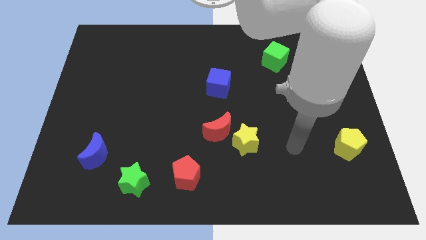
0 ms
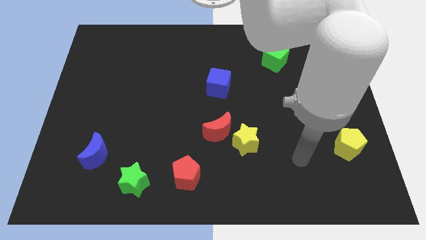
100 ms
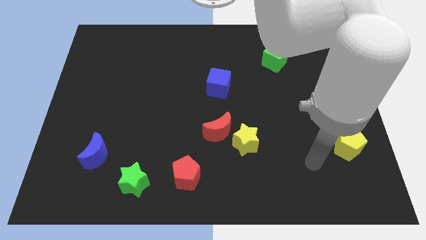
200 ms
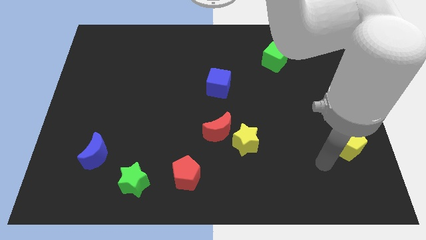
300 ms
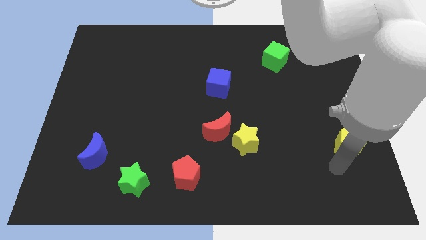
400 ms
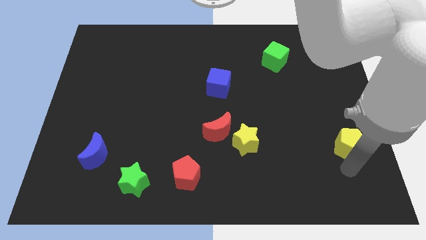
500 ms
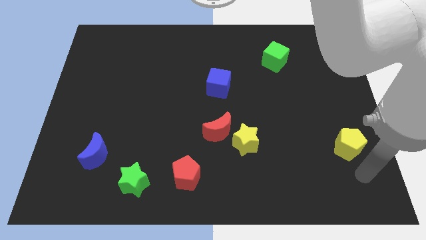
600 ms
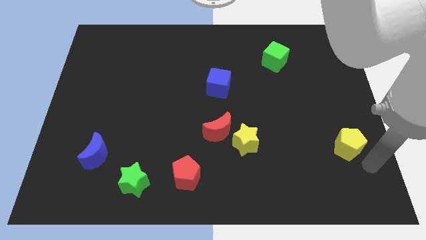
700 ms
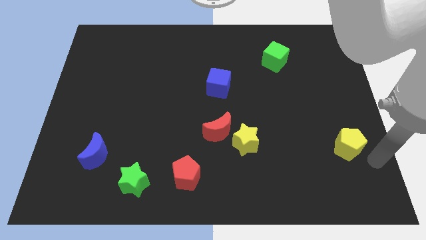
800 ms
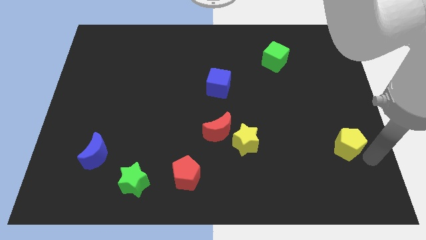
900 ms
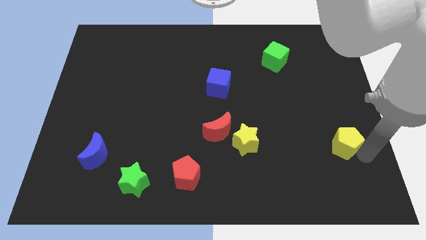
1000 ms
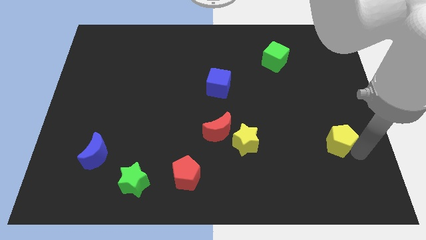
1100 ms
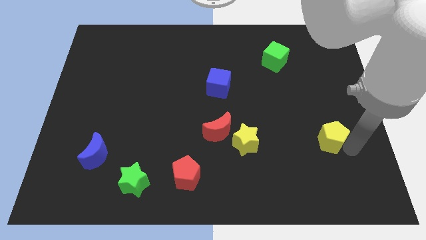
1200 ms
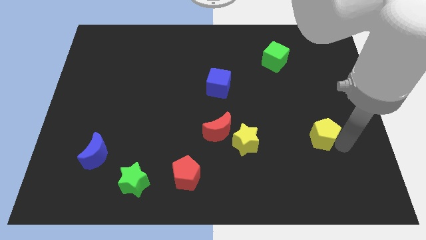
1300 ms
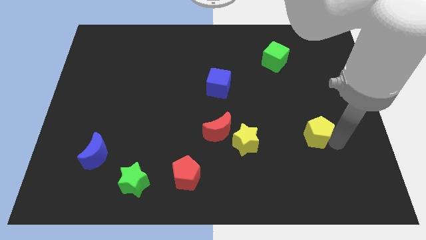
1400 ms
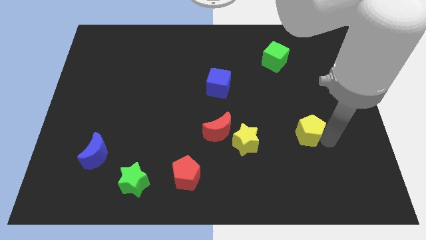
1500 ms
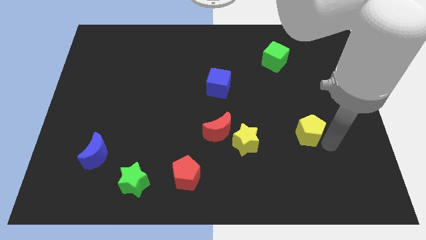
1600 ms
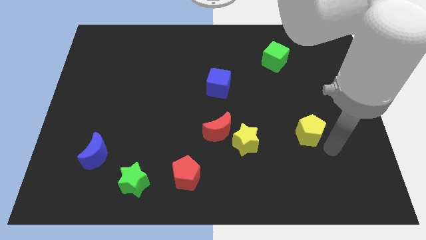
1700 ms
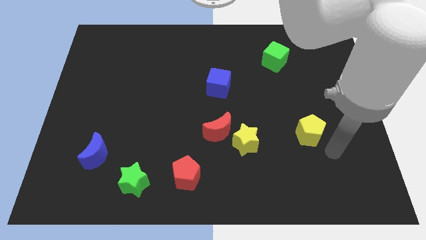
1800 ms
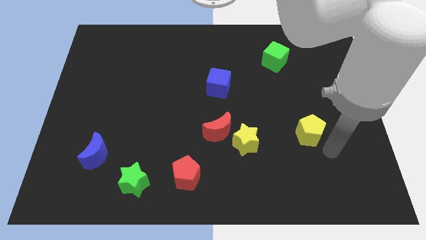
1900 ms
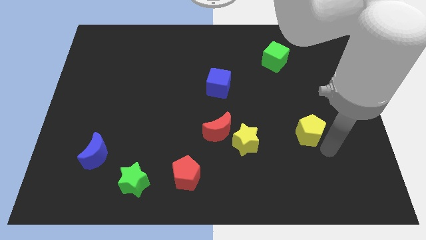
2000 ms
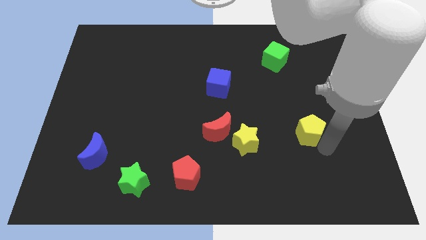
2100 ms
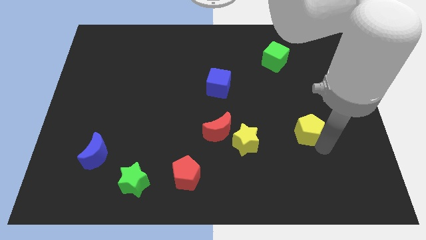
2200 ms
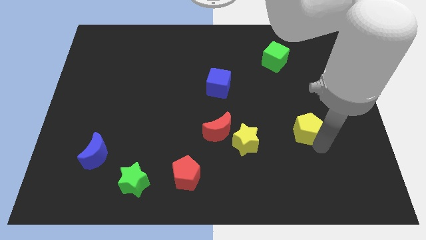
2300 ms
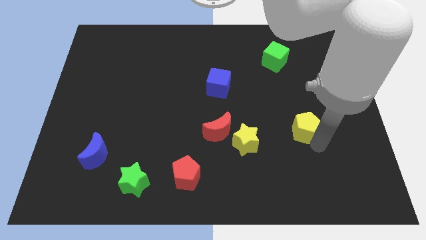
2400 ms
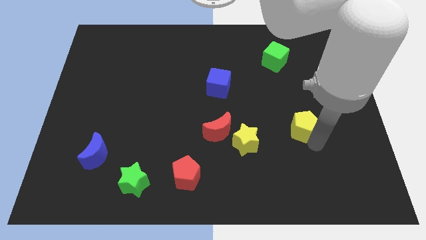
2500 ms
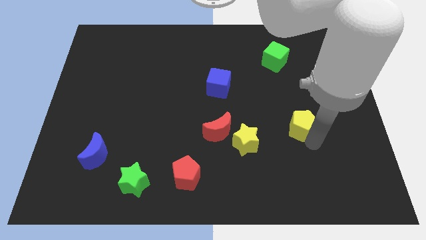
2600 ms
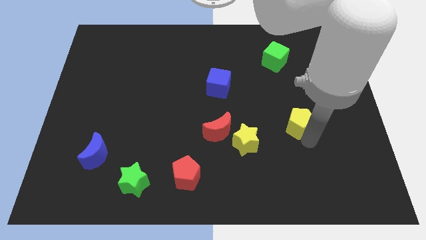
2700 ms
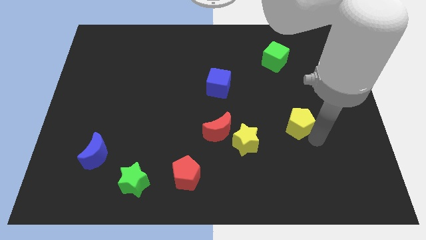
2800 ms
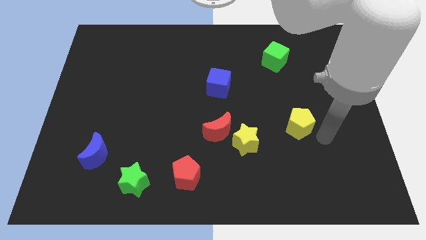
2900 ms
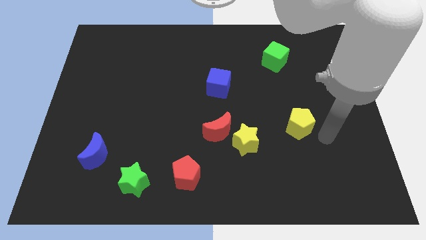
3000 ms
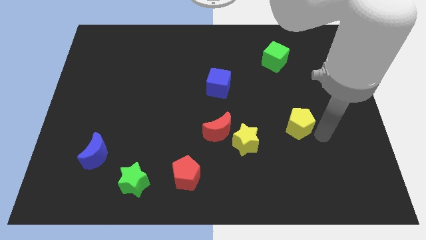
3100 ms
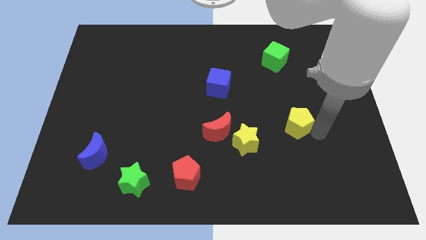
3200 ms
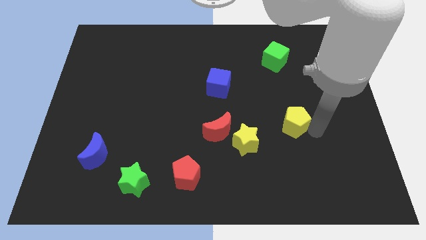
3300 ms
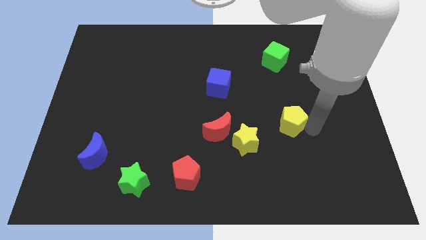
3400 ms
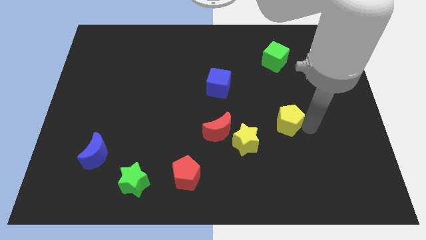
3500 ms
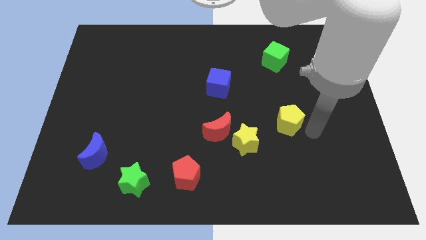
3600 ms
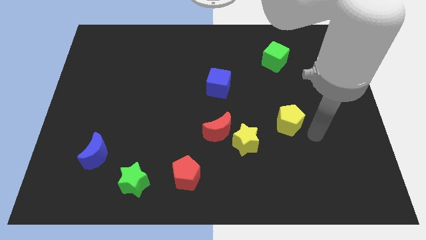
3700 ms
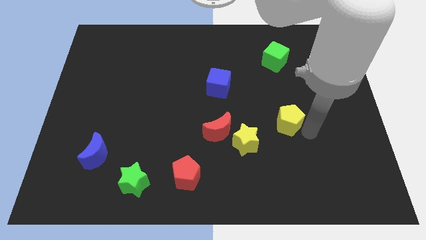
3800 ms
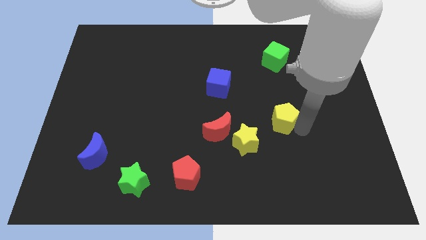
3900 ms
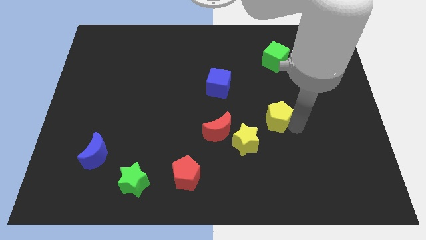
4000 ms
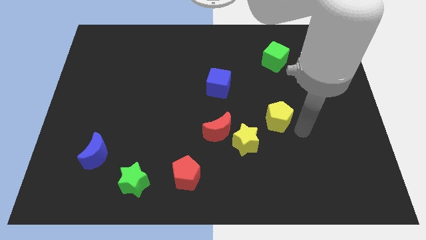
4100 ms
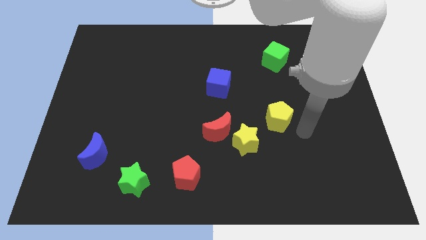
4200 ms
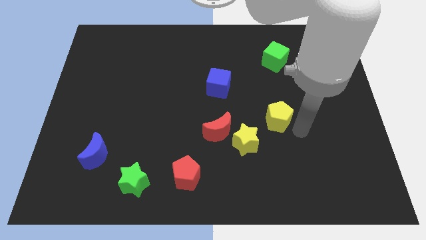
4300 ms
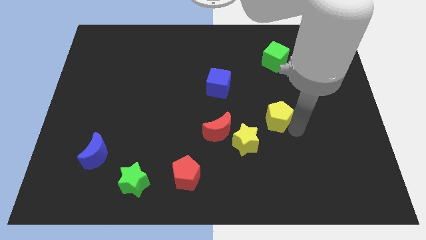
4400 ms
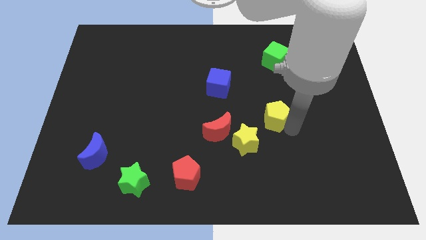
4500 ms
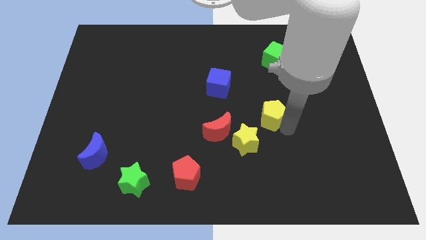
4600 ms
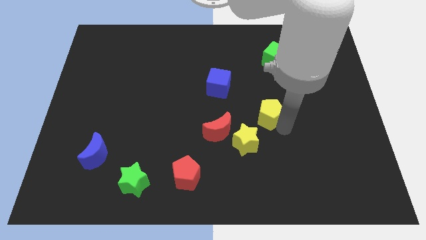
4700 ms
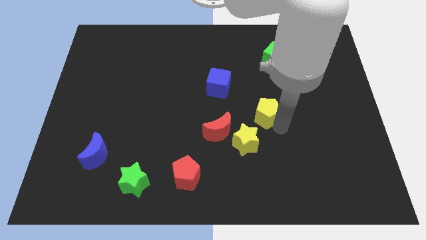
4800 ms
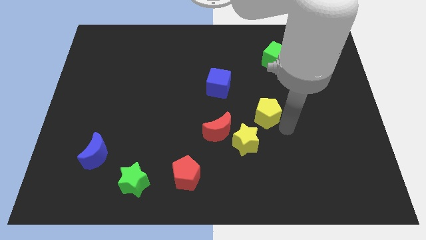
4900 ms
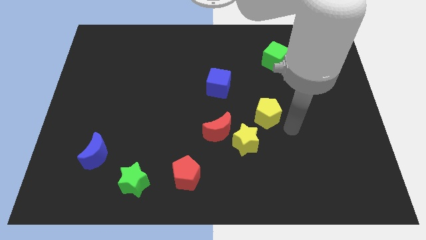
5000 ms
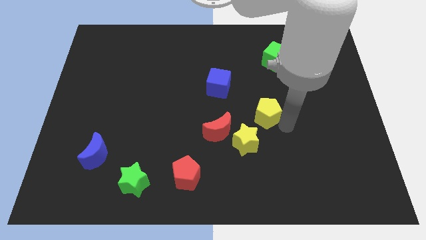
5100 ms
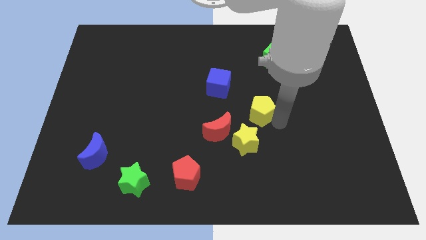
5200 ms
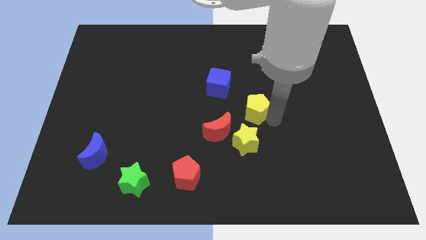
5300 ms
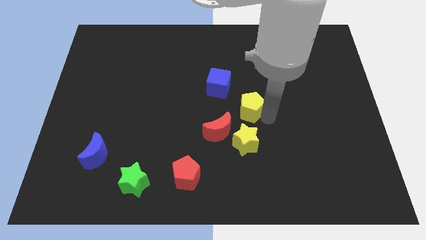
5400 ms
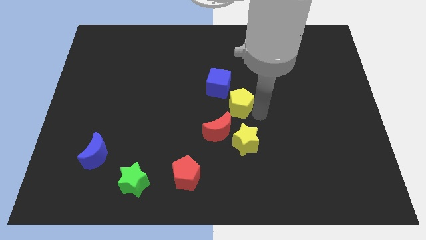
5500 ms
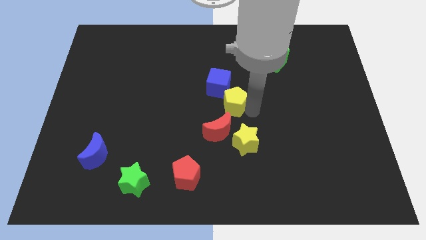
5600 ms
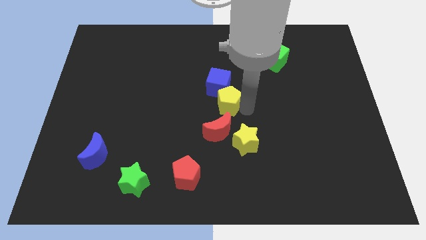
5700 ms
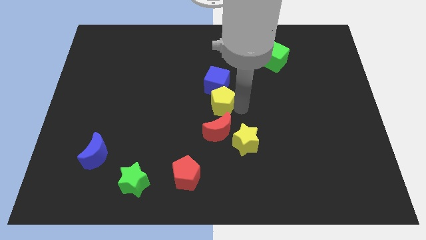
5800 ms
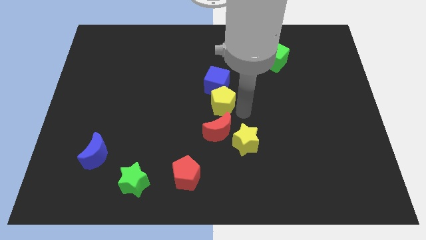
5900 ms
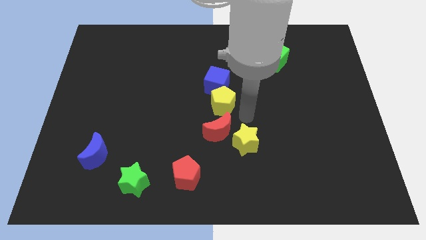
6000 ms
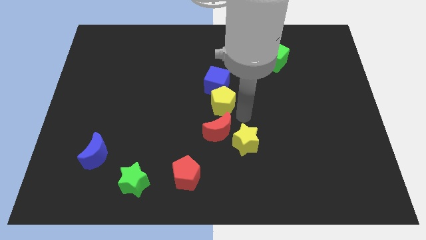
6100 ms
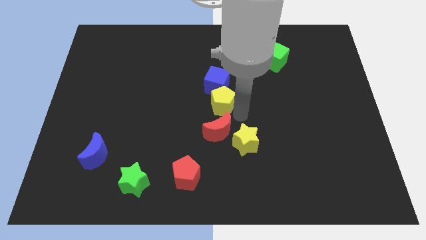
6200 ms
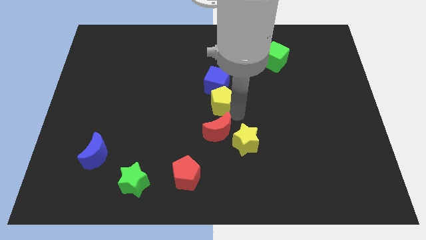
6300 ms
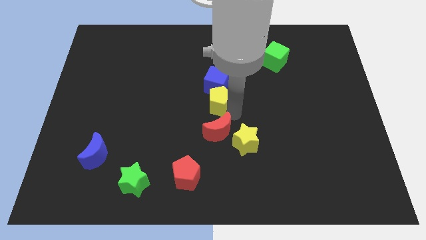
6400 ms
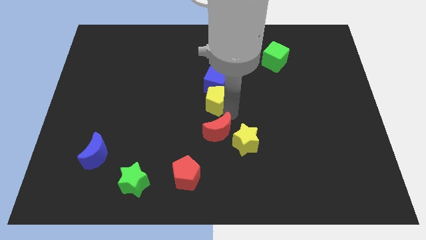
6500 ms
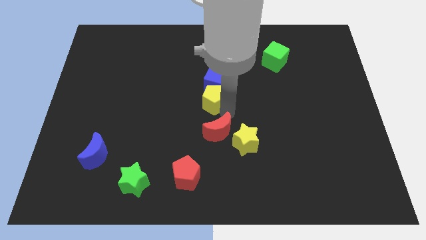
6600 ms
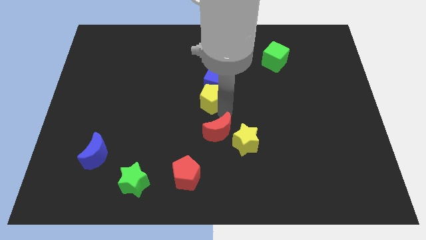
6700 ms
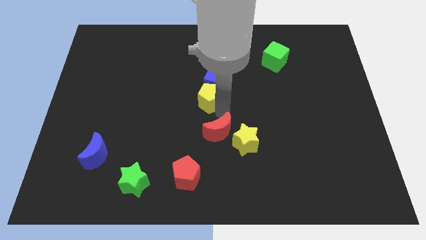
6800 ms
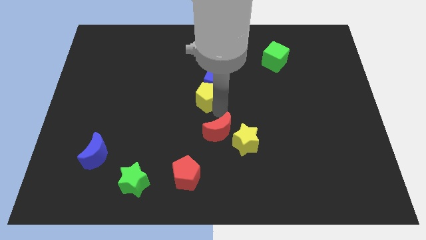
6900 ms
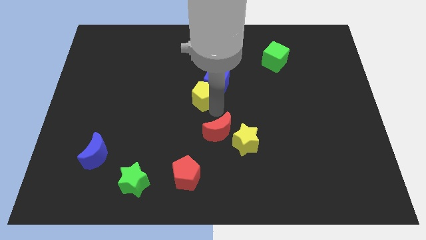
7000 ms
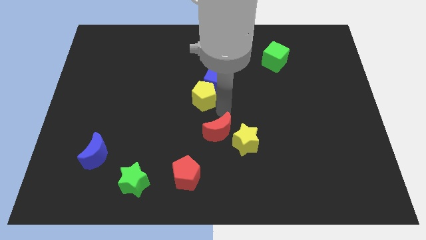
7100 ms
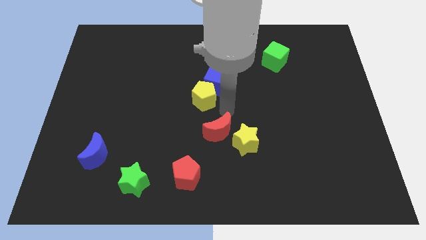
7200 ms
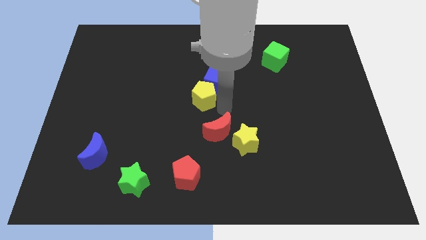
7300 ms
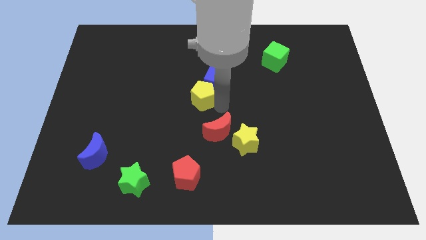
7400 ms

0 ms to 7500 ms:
push the yellow pentagon just left of the blue cube
